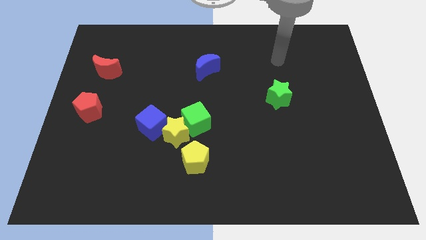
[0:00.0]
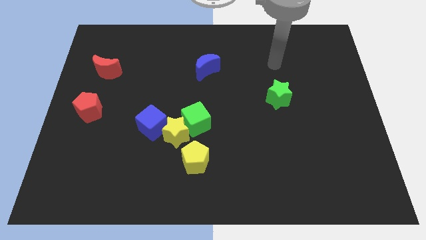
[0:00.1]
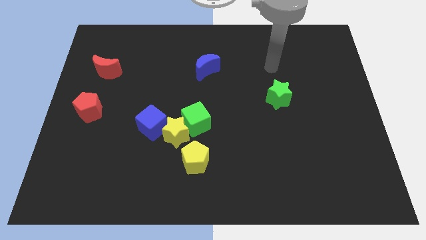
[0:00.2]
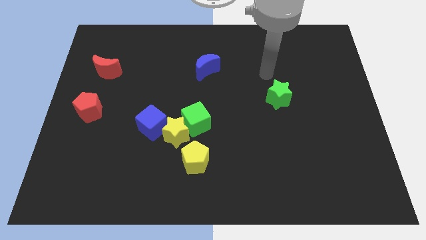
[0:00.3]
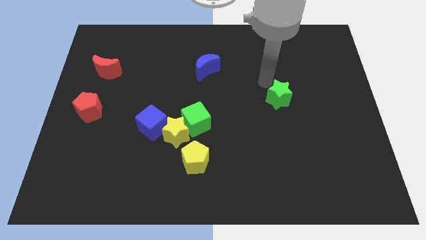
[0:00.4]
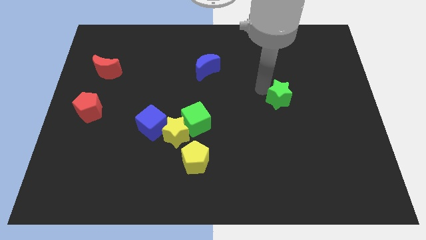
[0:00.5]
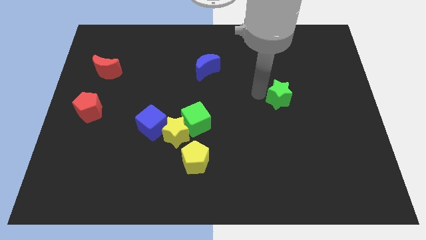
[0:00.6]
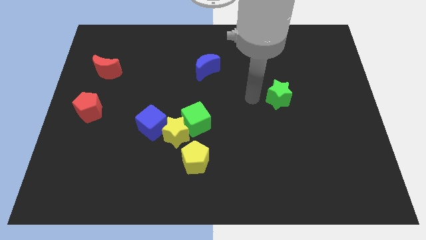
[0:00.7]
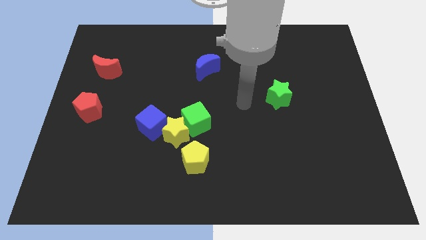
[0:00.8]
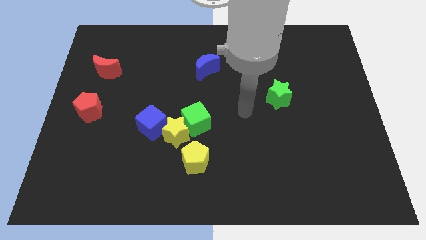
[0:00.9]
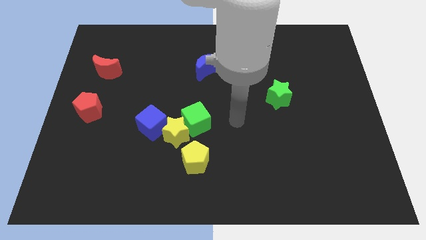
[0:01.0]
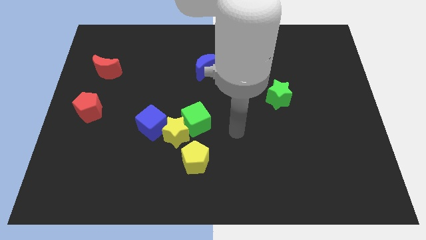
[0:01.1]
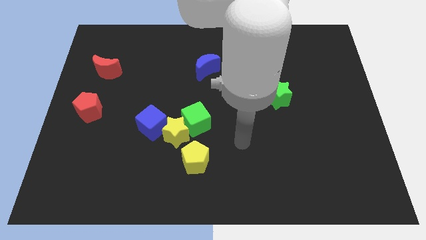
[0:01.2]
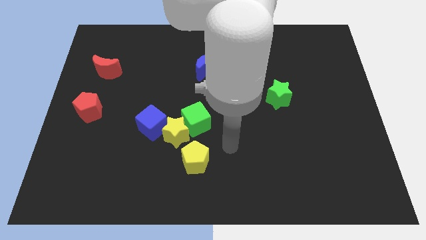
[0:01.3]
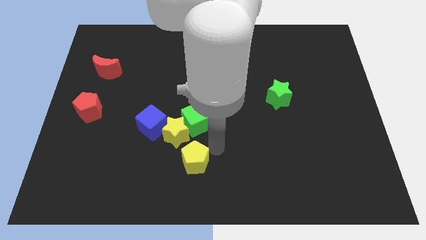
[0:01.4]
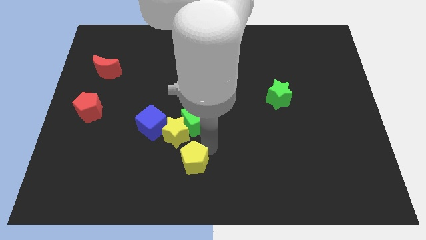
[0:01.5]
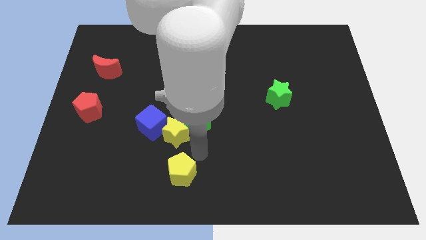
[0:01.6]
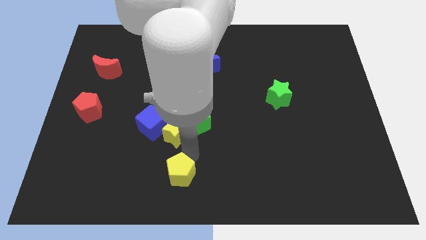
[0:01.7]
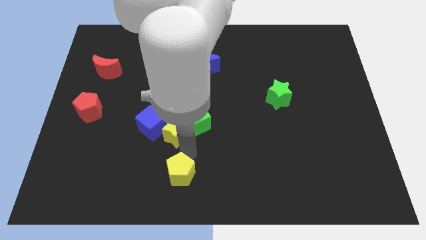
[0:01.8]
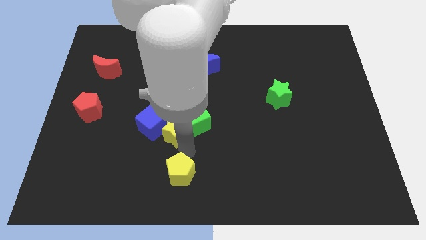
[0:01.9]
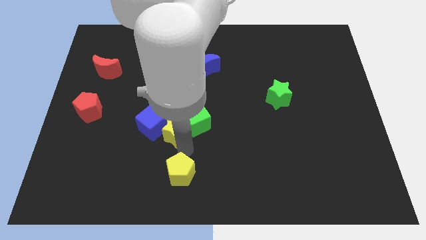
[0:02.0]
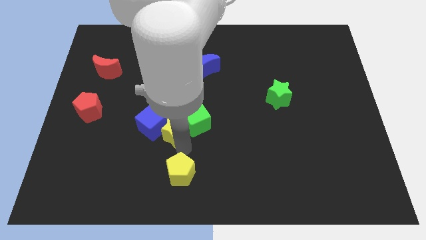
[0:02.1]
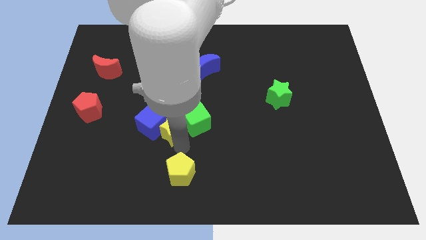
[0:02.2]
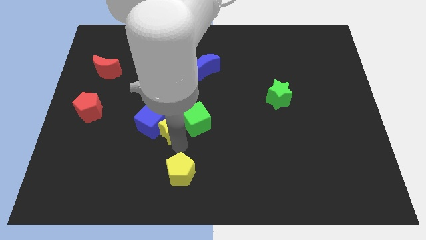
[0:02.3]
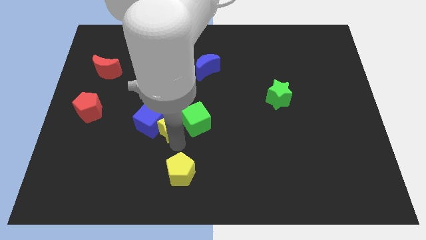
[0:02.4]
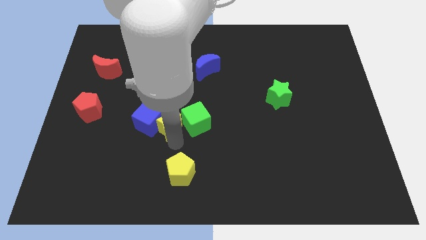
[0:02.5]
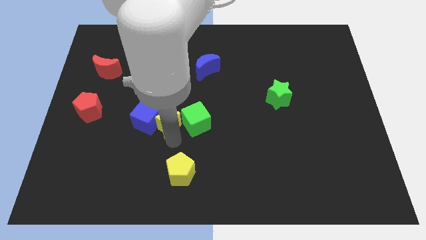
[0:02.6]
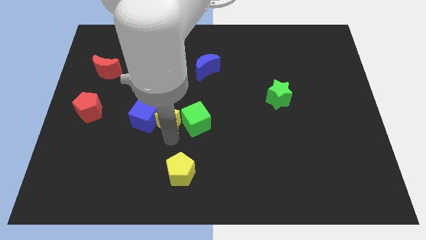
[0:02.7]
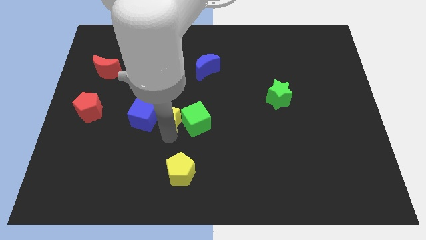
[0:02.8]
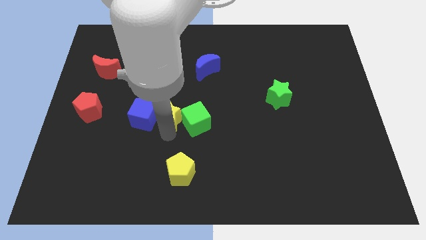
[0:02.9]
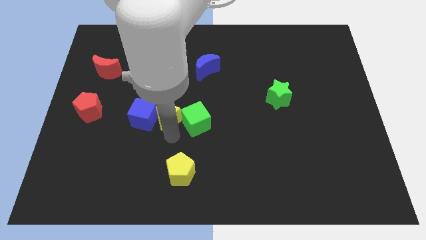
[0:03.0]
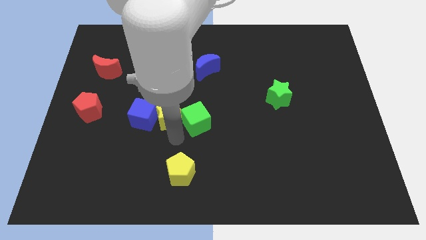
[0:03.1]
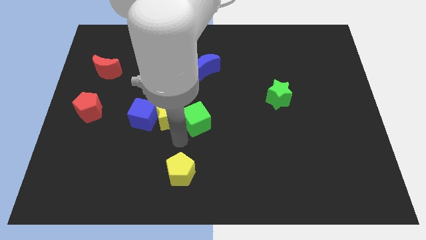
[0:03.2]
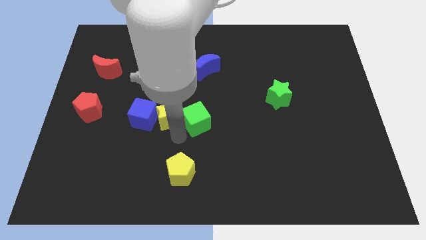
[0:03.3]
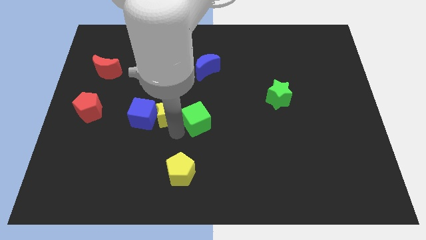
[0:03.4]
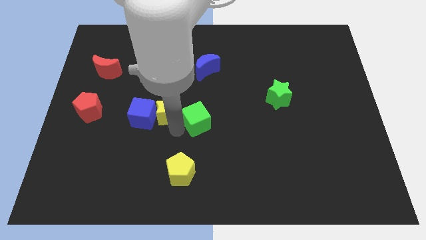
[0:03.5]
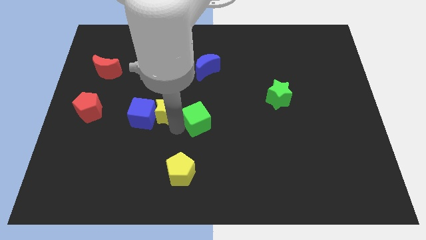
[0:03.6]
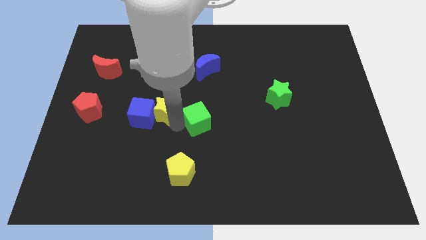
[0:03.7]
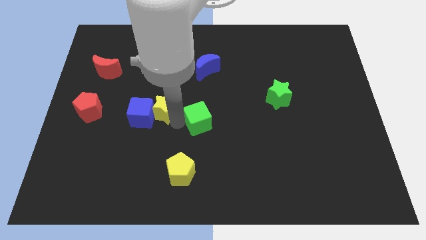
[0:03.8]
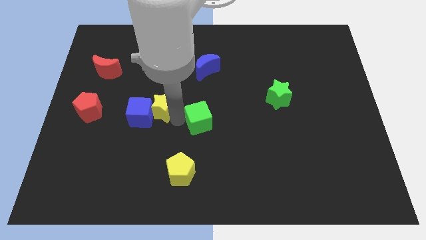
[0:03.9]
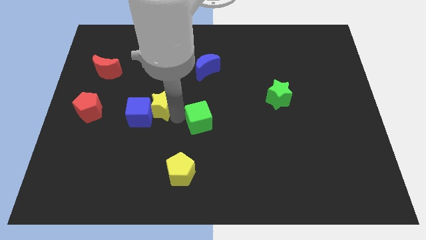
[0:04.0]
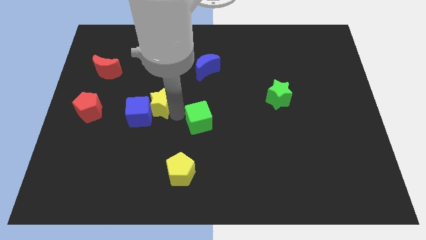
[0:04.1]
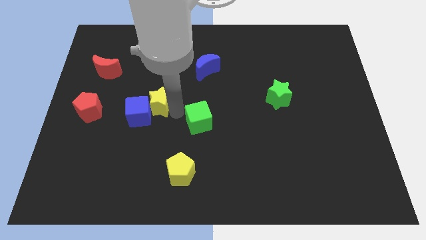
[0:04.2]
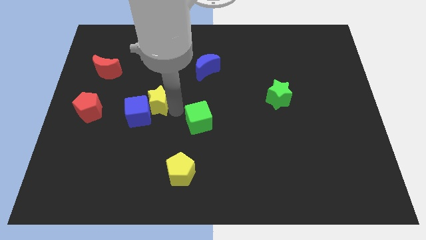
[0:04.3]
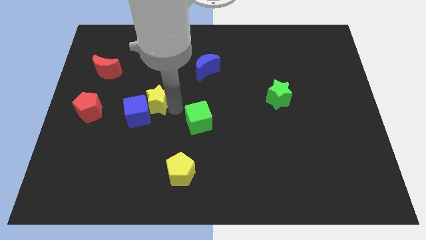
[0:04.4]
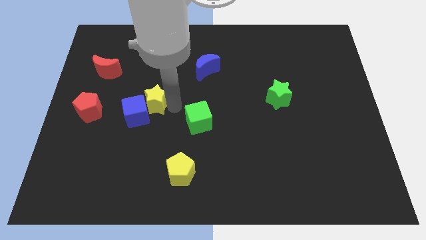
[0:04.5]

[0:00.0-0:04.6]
pull the yellow star apart from the group of blocks

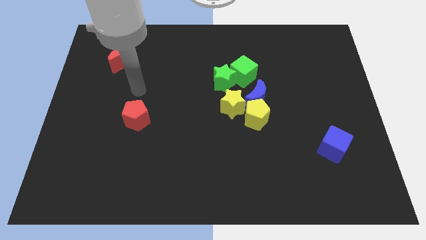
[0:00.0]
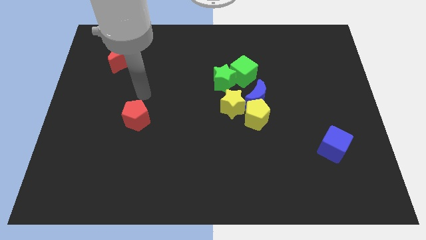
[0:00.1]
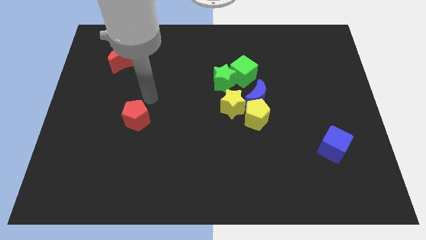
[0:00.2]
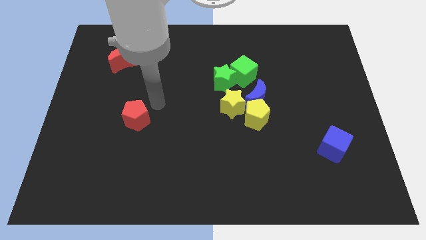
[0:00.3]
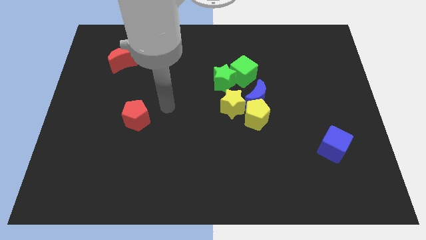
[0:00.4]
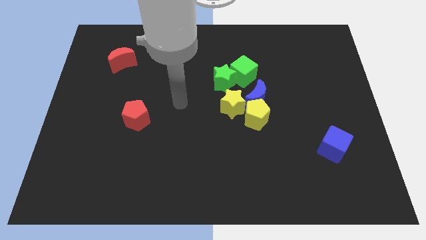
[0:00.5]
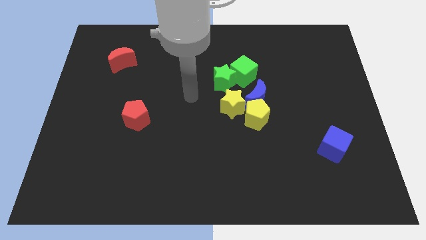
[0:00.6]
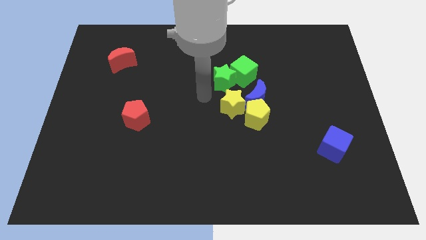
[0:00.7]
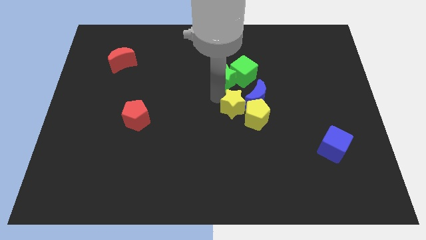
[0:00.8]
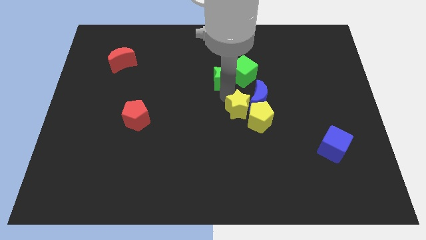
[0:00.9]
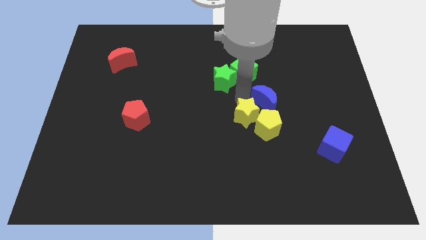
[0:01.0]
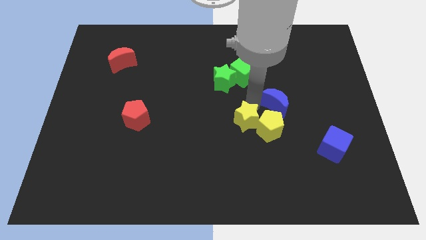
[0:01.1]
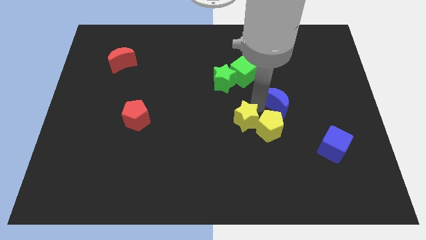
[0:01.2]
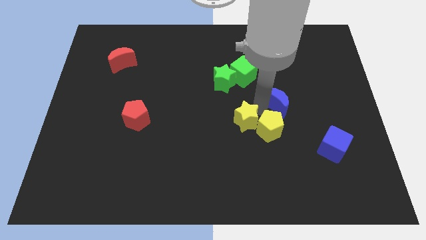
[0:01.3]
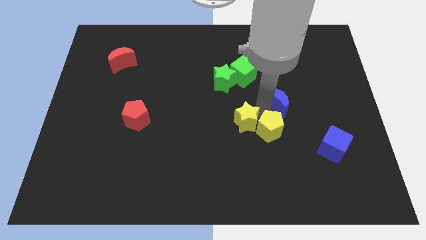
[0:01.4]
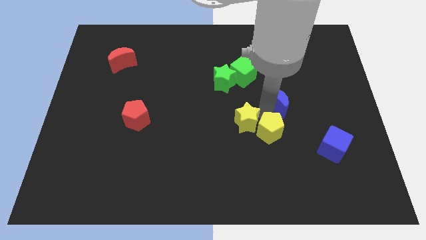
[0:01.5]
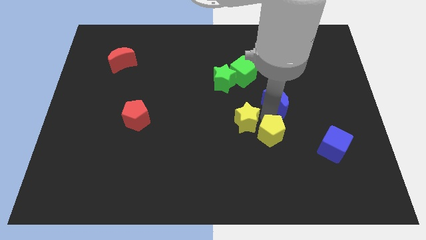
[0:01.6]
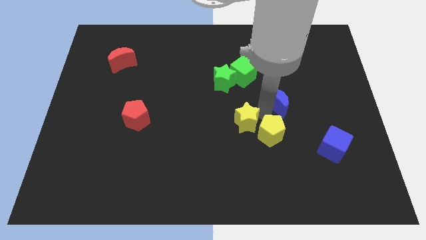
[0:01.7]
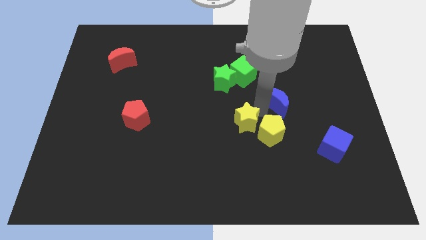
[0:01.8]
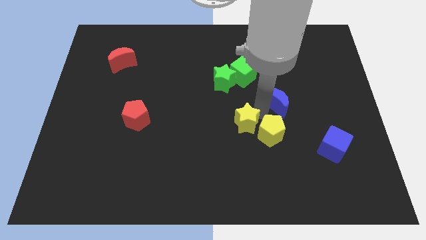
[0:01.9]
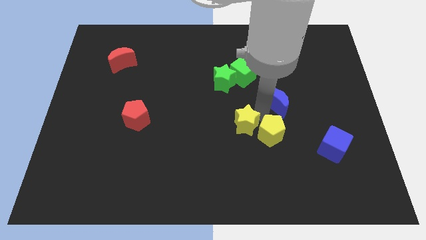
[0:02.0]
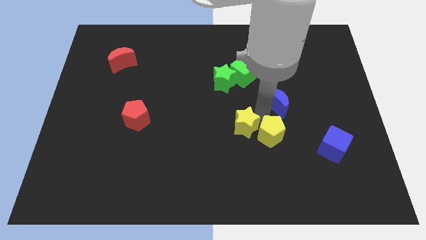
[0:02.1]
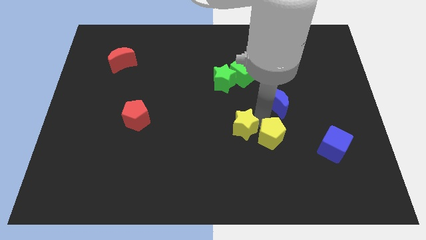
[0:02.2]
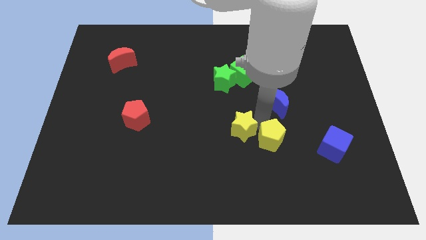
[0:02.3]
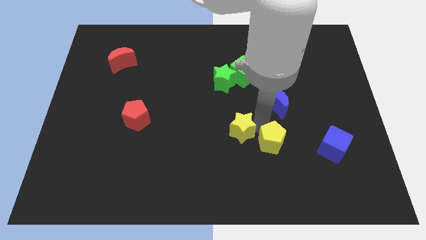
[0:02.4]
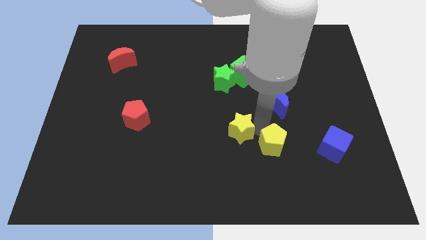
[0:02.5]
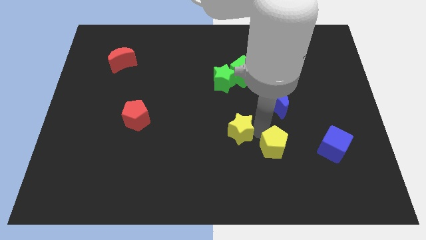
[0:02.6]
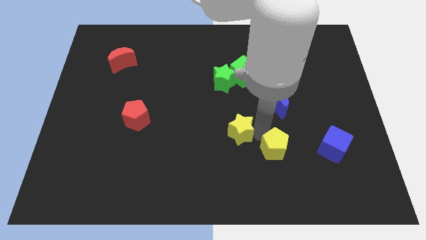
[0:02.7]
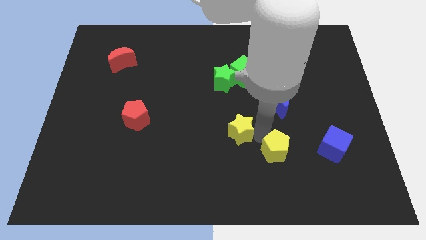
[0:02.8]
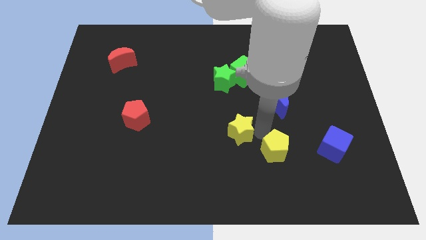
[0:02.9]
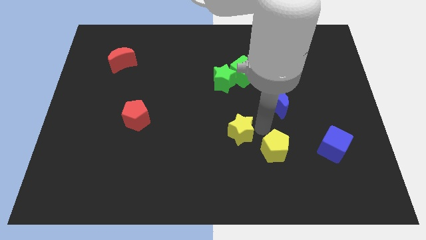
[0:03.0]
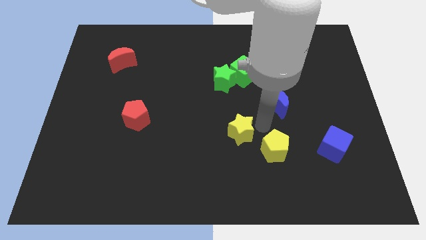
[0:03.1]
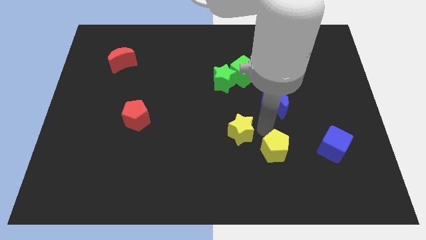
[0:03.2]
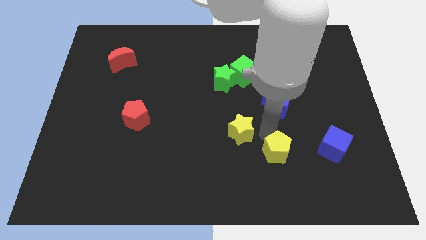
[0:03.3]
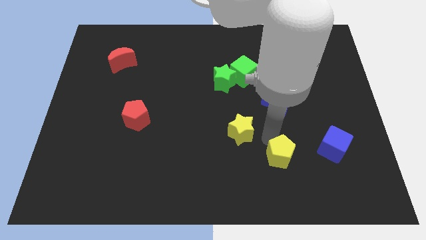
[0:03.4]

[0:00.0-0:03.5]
pull the yellow pentagon apart from the blue moon and yellow star

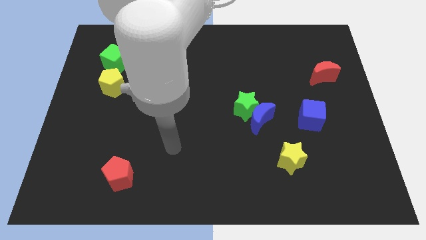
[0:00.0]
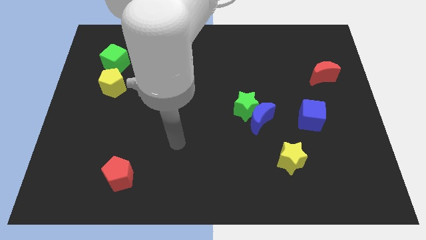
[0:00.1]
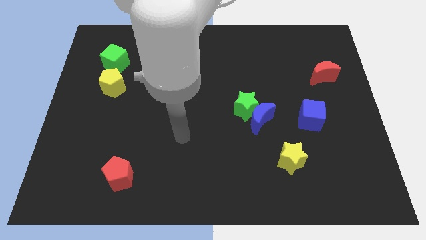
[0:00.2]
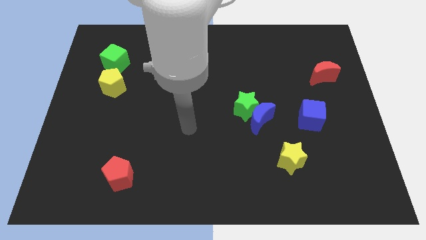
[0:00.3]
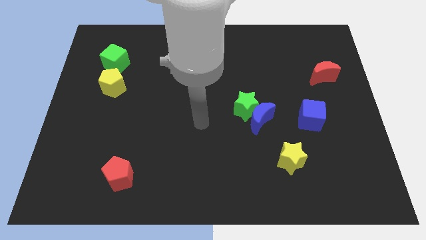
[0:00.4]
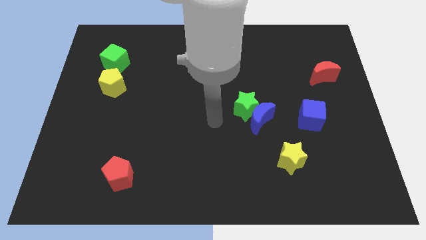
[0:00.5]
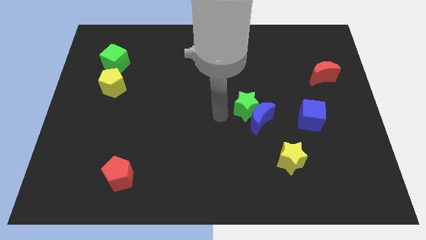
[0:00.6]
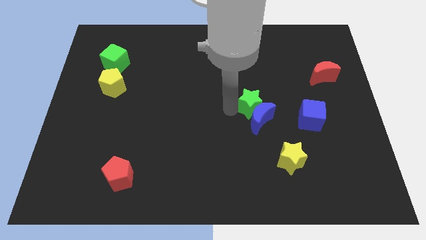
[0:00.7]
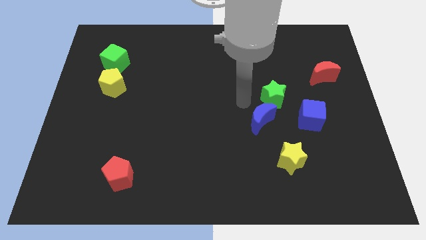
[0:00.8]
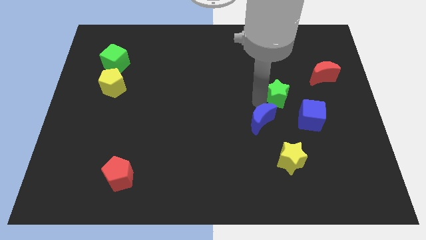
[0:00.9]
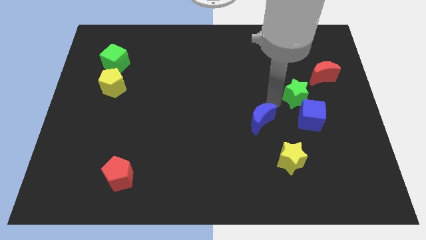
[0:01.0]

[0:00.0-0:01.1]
separate the blue moon from the green star

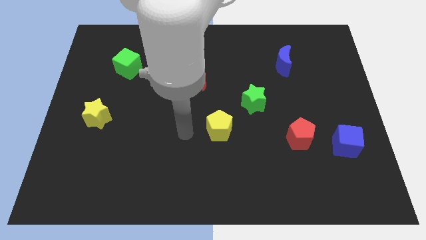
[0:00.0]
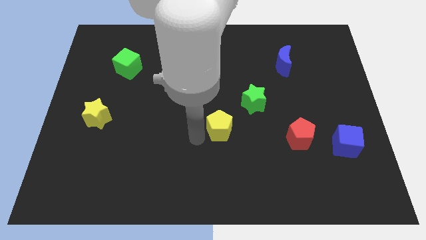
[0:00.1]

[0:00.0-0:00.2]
move the red pentagon away from the blue cube

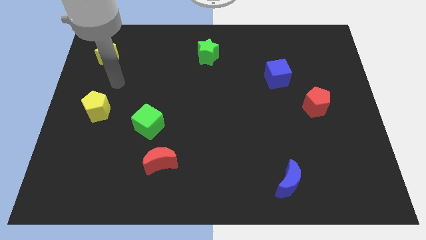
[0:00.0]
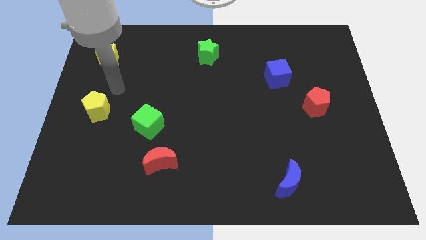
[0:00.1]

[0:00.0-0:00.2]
separate the red moon from the green cube
